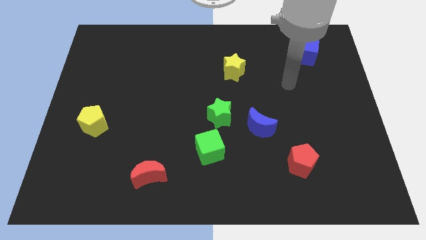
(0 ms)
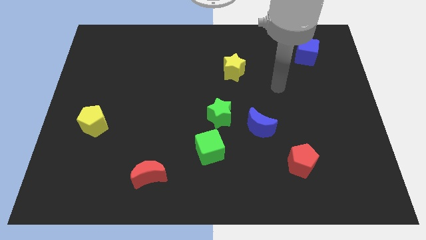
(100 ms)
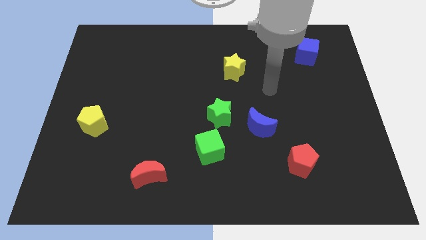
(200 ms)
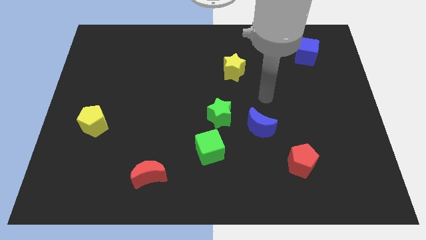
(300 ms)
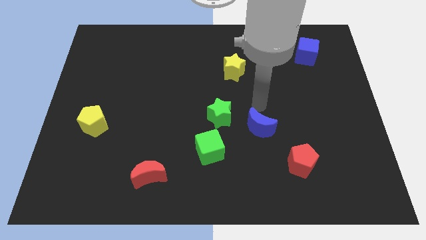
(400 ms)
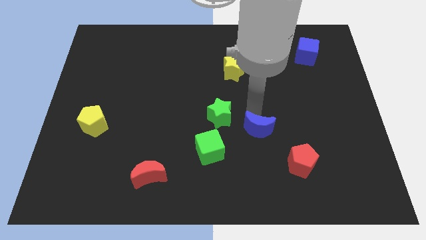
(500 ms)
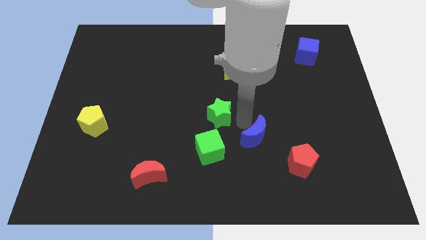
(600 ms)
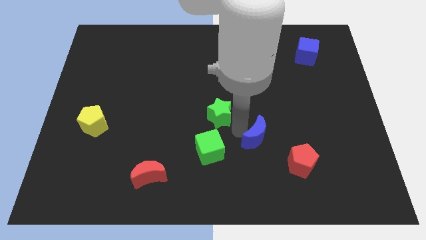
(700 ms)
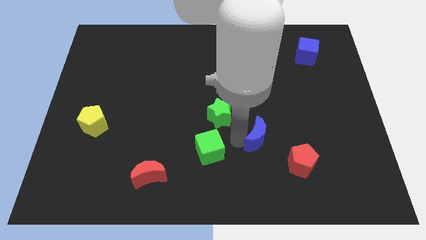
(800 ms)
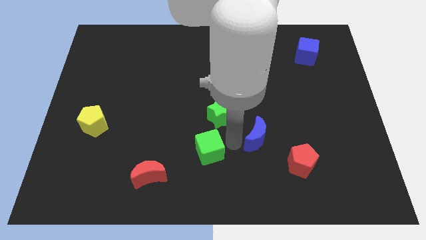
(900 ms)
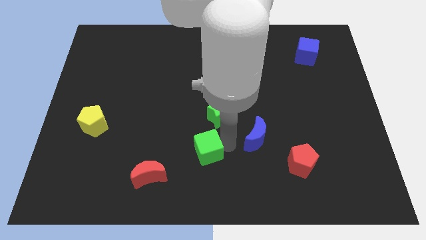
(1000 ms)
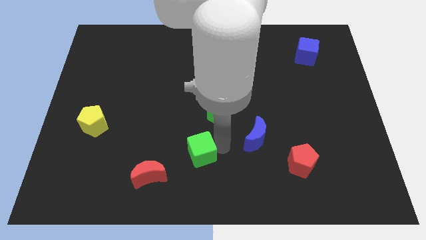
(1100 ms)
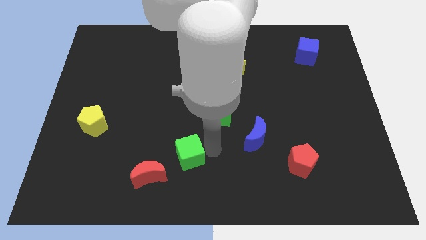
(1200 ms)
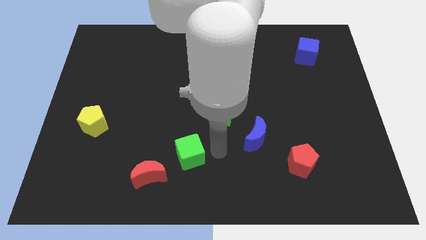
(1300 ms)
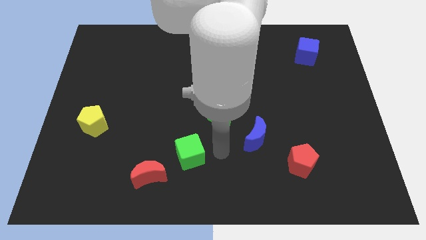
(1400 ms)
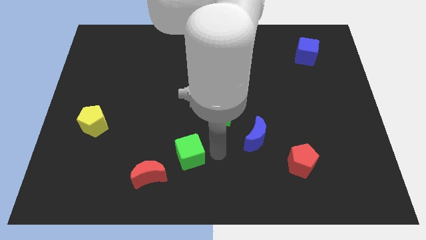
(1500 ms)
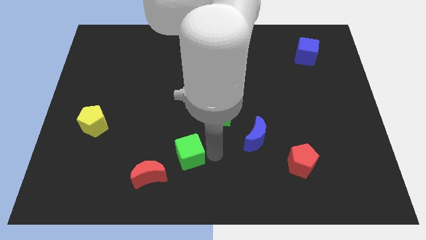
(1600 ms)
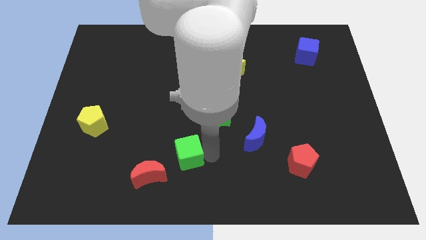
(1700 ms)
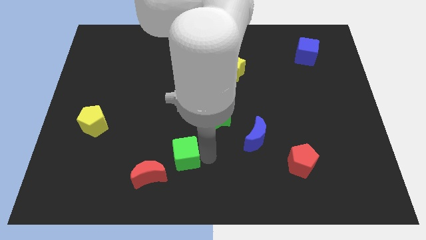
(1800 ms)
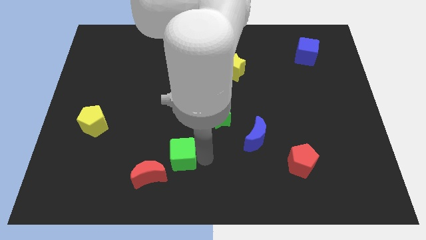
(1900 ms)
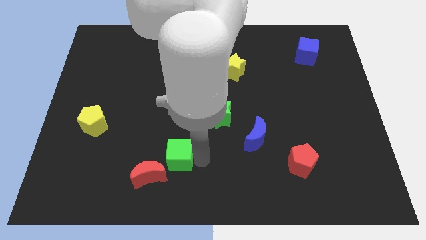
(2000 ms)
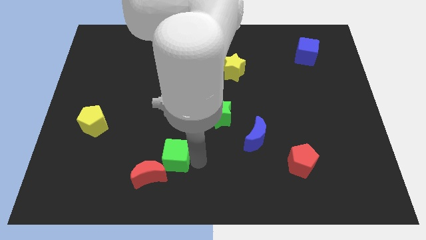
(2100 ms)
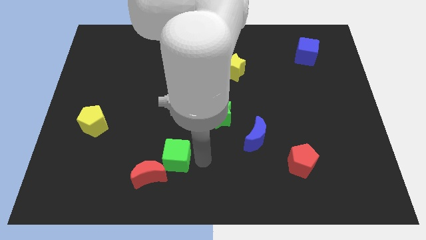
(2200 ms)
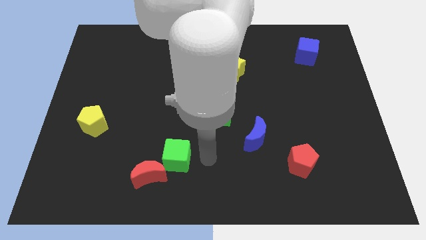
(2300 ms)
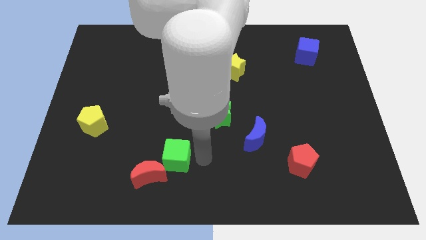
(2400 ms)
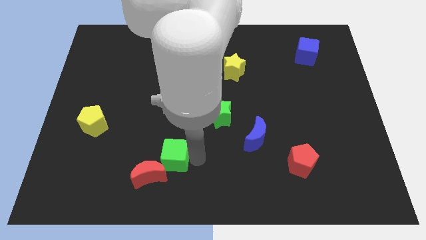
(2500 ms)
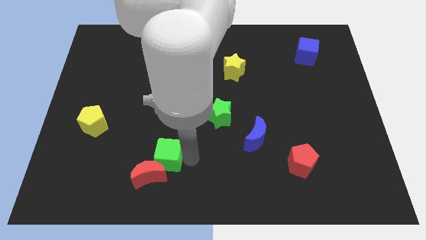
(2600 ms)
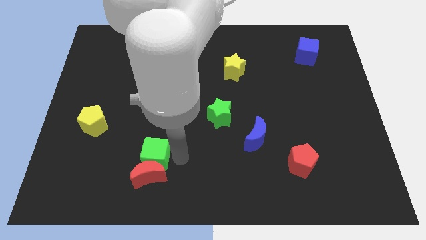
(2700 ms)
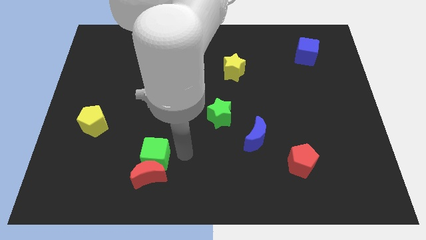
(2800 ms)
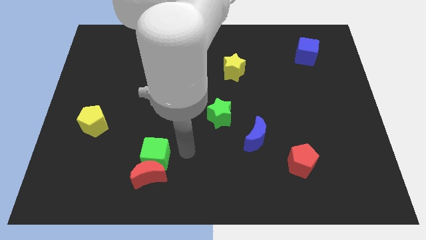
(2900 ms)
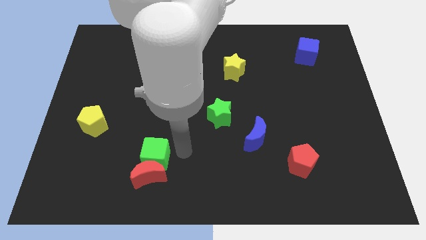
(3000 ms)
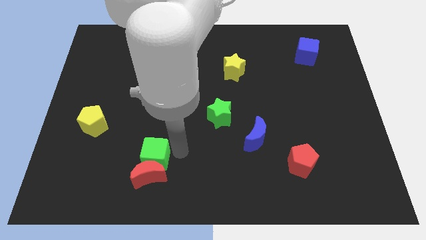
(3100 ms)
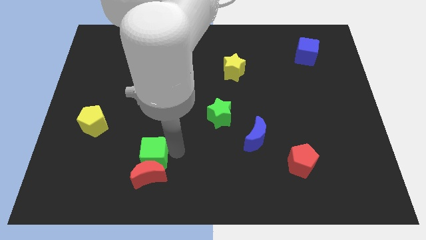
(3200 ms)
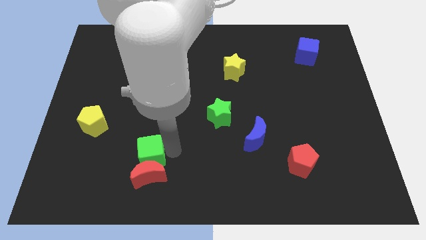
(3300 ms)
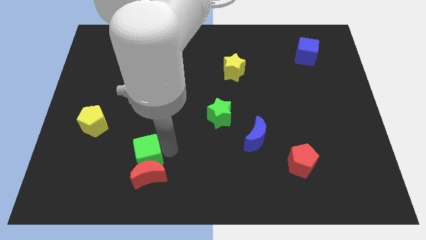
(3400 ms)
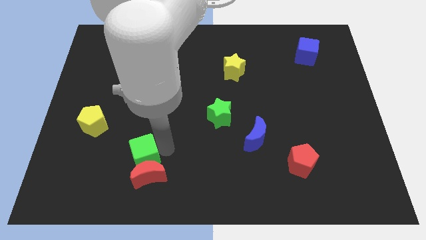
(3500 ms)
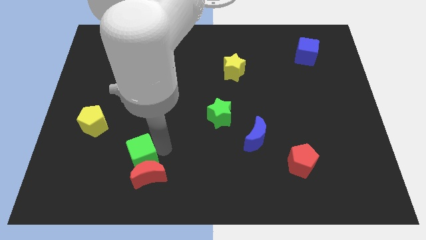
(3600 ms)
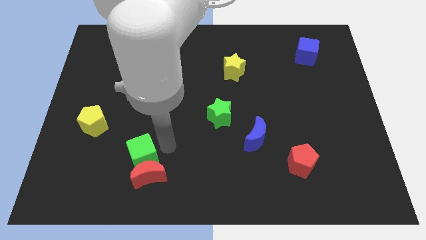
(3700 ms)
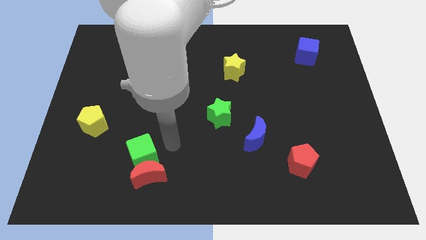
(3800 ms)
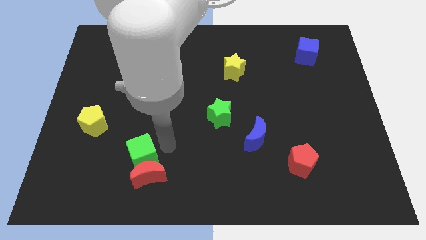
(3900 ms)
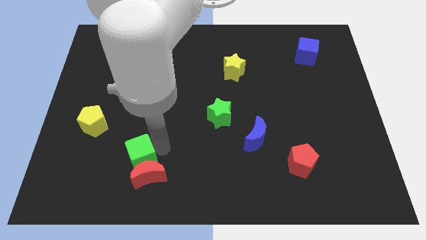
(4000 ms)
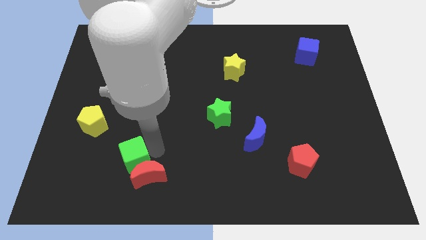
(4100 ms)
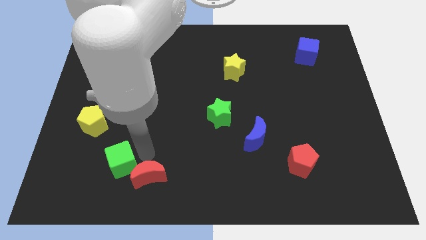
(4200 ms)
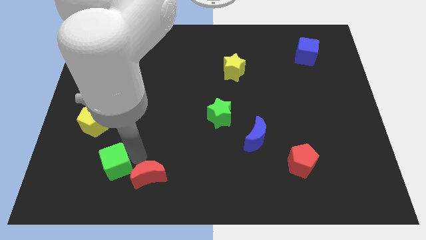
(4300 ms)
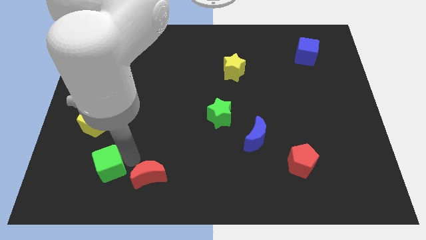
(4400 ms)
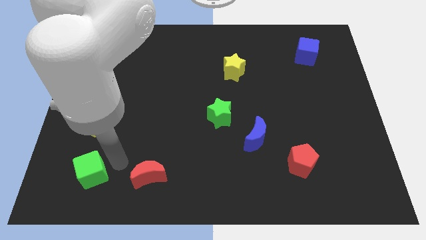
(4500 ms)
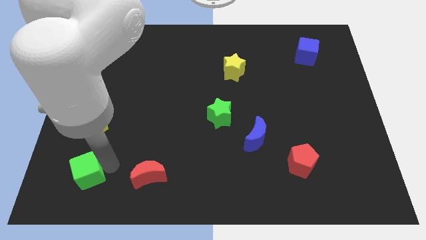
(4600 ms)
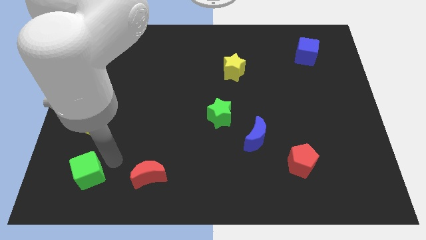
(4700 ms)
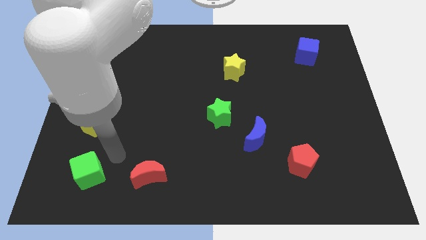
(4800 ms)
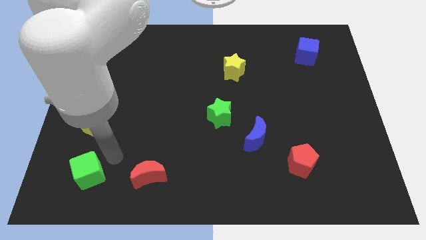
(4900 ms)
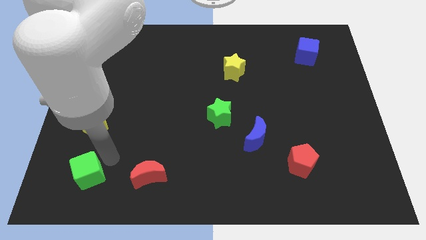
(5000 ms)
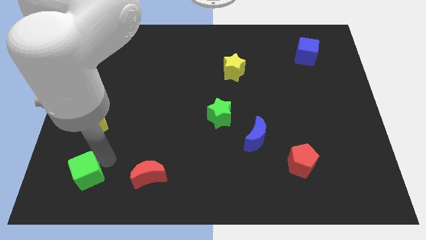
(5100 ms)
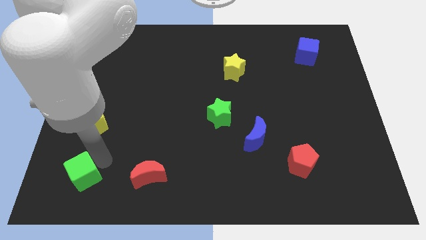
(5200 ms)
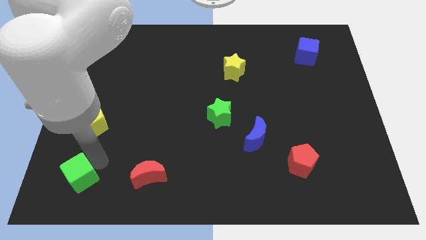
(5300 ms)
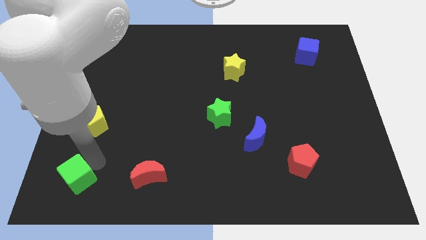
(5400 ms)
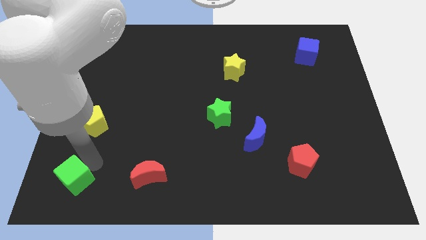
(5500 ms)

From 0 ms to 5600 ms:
move the green cube to the bottom left
